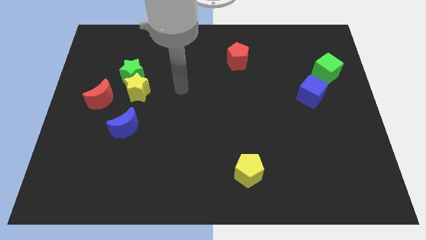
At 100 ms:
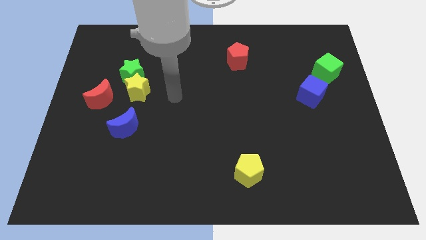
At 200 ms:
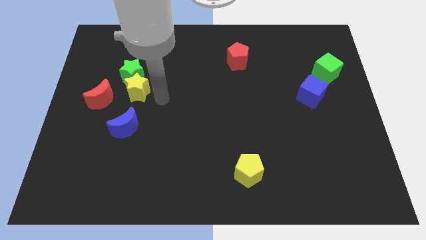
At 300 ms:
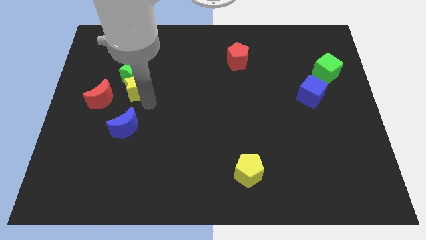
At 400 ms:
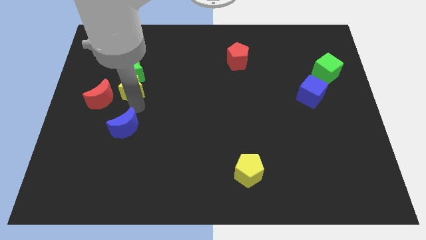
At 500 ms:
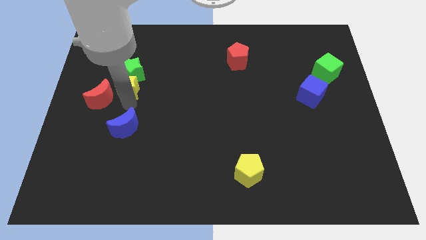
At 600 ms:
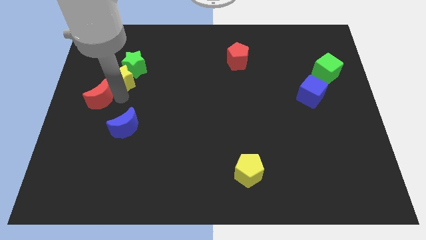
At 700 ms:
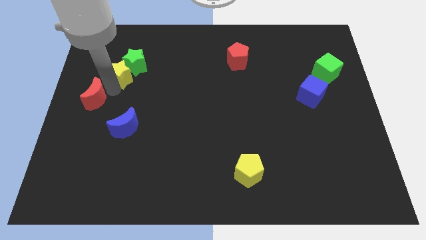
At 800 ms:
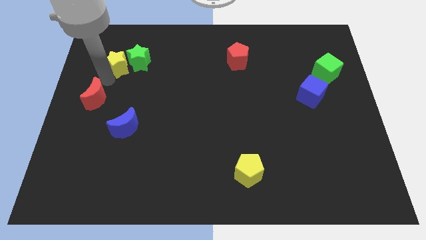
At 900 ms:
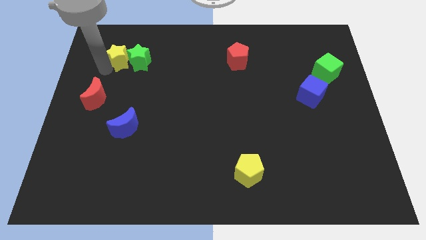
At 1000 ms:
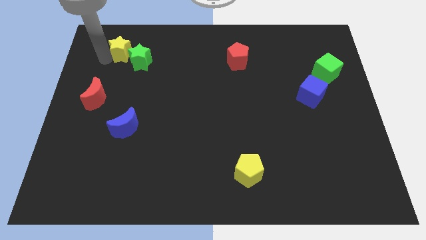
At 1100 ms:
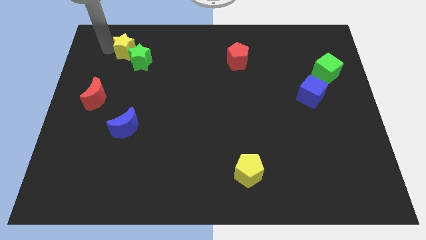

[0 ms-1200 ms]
separate the yellow star from the green star and red moon

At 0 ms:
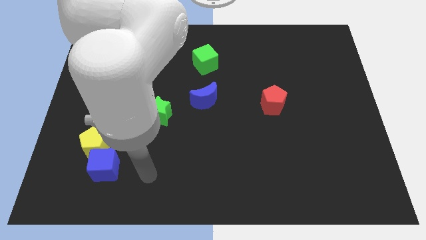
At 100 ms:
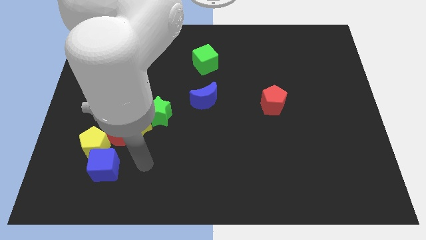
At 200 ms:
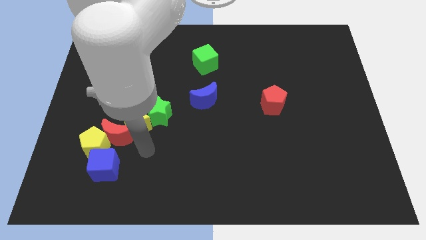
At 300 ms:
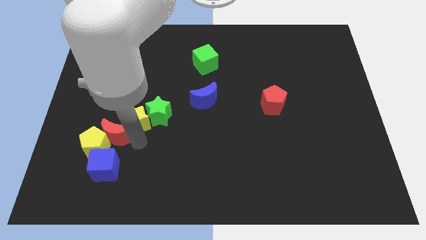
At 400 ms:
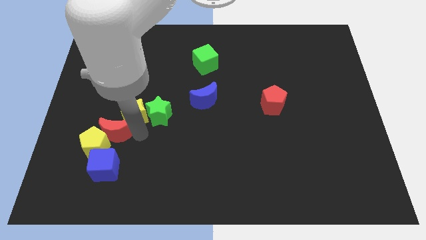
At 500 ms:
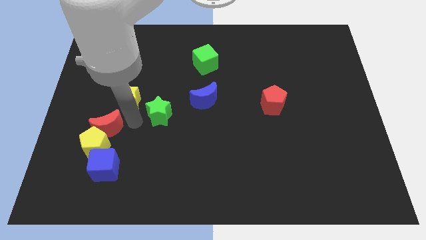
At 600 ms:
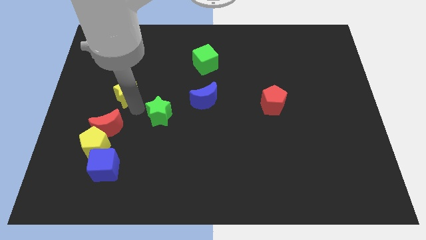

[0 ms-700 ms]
separate the green star from the yellow star

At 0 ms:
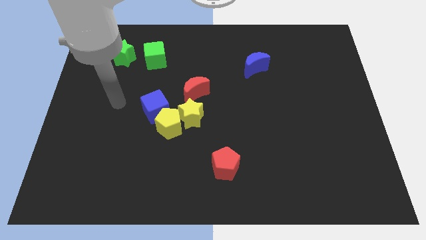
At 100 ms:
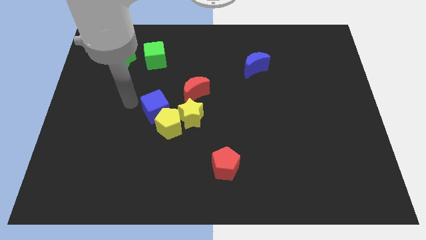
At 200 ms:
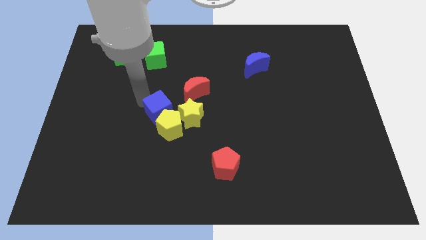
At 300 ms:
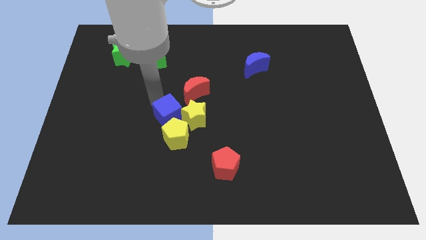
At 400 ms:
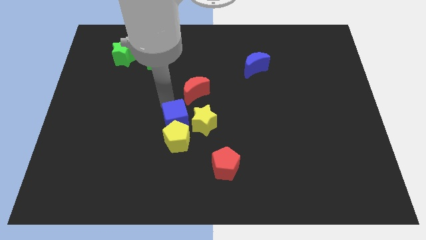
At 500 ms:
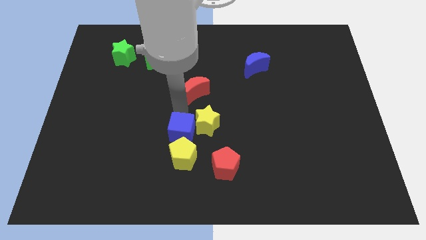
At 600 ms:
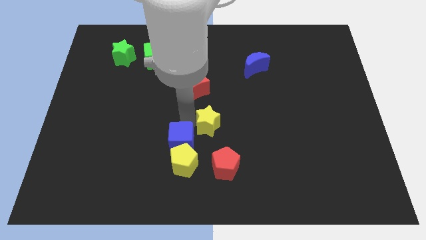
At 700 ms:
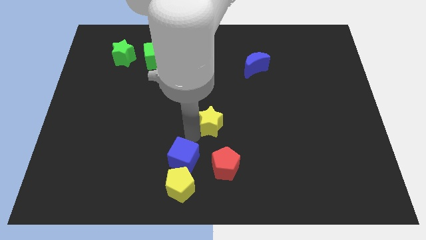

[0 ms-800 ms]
move the yellow pentagon away from the yellow star and blue cube

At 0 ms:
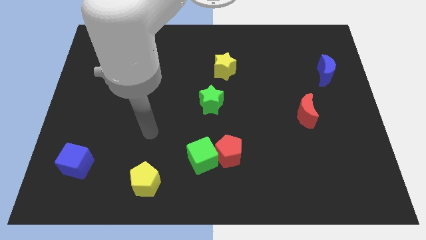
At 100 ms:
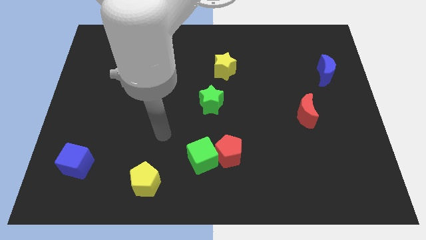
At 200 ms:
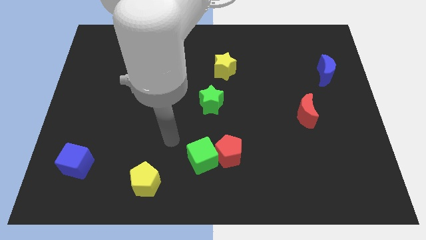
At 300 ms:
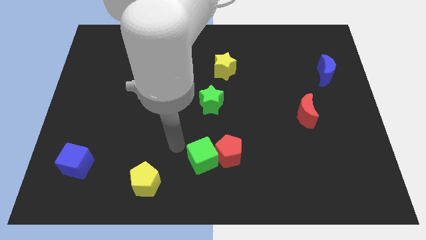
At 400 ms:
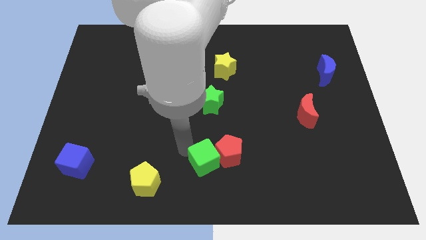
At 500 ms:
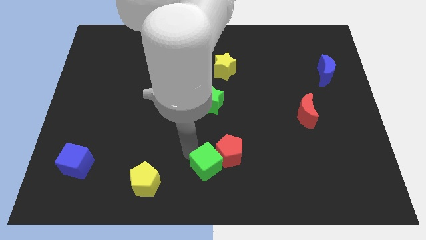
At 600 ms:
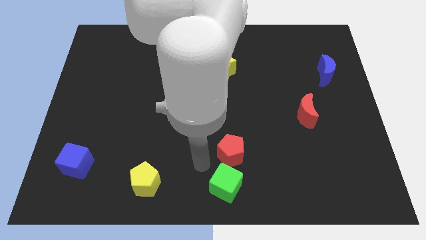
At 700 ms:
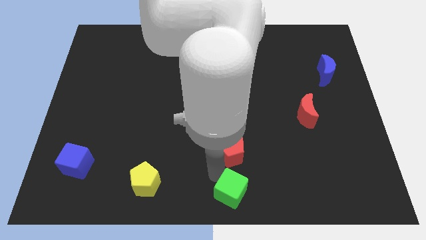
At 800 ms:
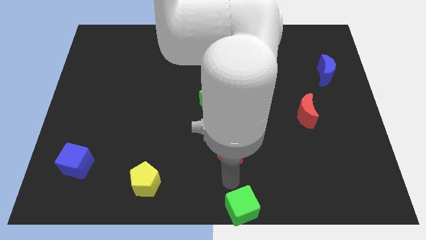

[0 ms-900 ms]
separate the red pentagon from the green cube

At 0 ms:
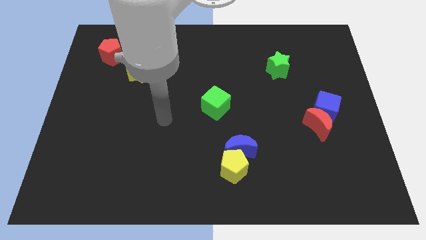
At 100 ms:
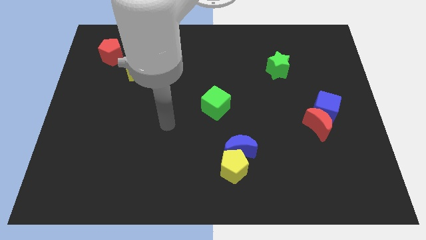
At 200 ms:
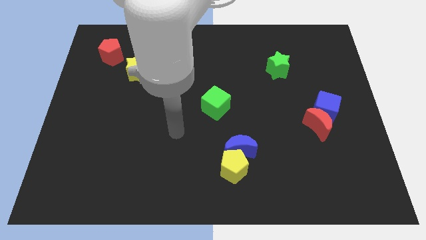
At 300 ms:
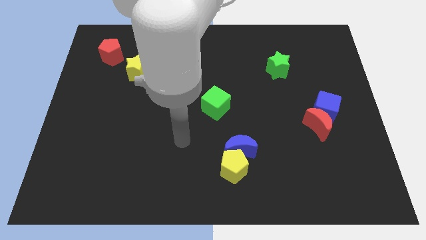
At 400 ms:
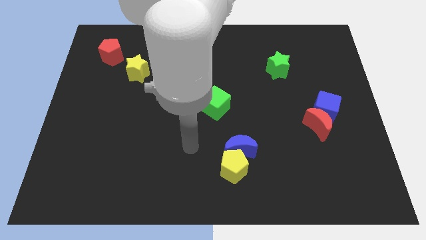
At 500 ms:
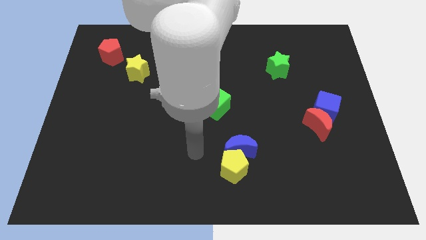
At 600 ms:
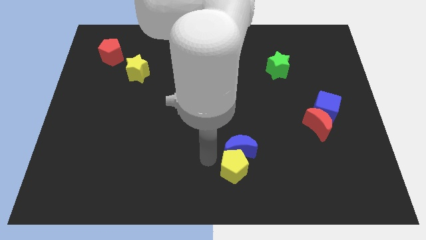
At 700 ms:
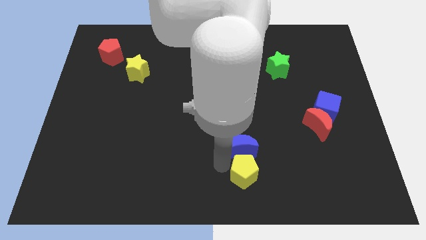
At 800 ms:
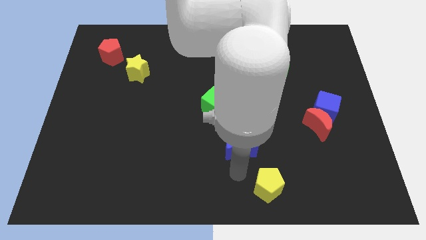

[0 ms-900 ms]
move the blue moon away from the yellow pentagon

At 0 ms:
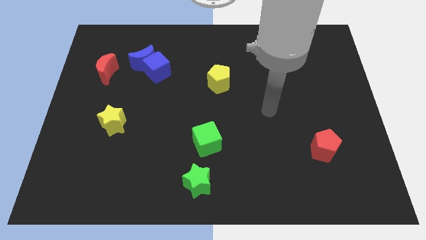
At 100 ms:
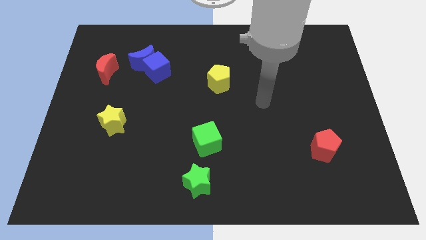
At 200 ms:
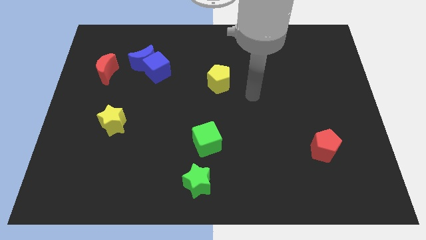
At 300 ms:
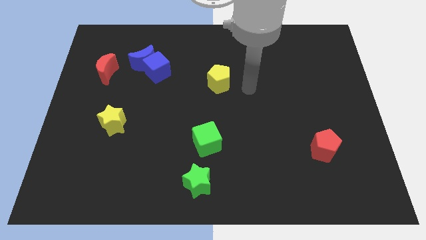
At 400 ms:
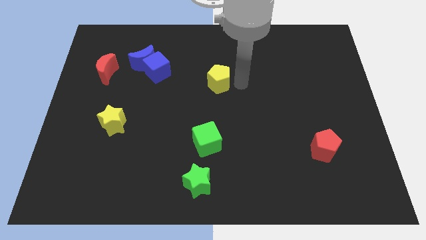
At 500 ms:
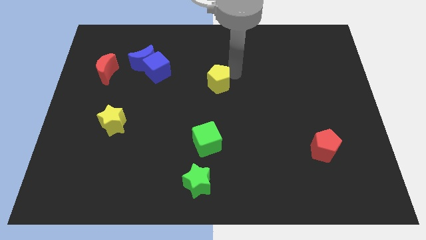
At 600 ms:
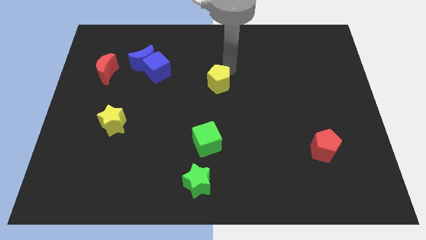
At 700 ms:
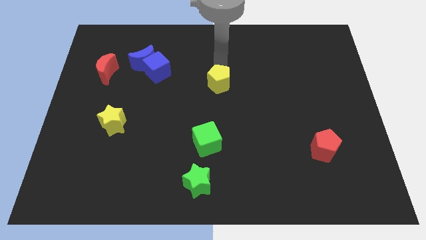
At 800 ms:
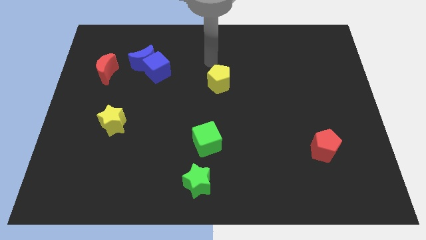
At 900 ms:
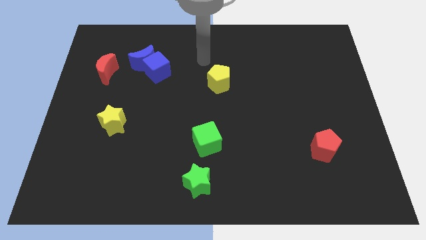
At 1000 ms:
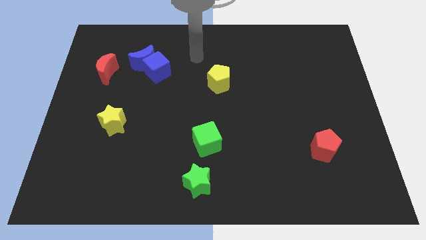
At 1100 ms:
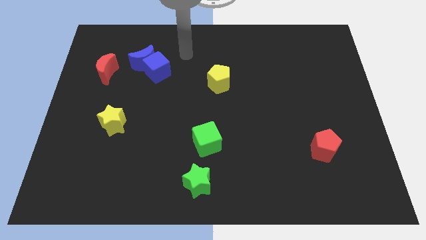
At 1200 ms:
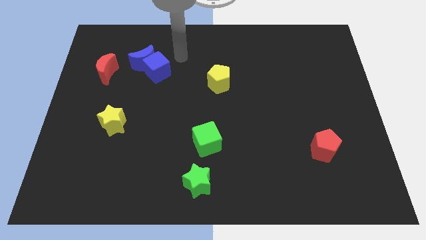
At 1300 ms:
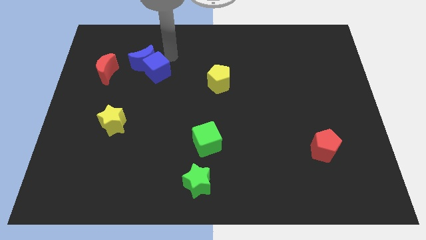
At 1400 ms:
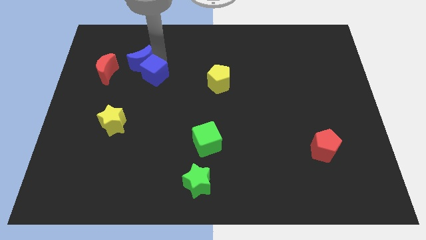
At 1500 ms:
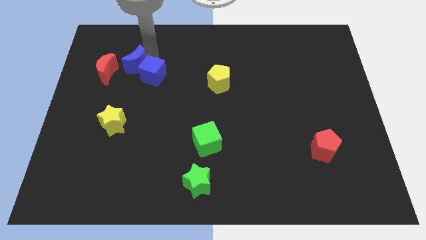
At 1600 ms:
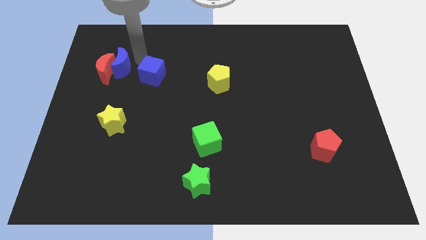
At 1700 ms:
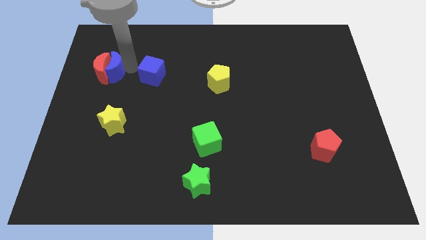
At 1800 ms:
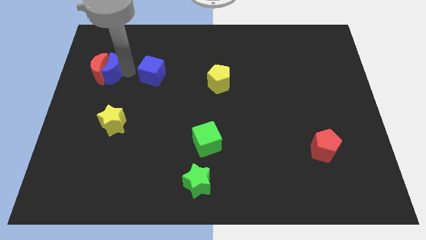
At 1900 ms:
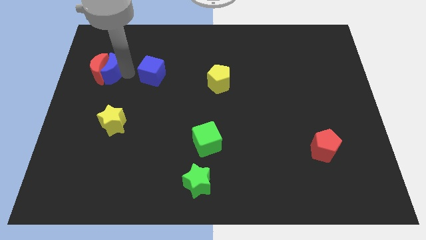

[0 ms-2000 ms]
pull the blue cube apart from the blue moon

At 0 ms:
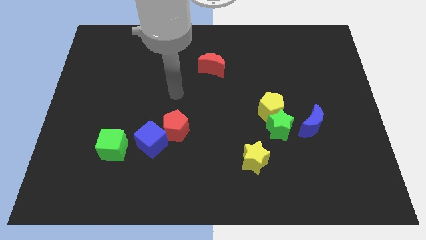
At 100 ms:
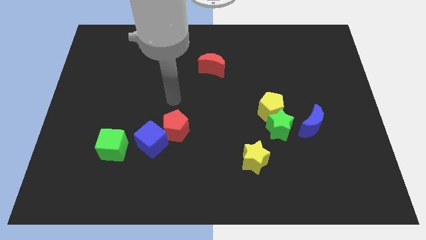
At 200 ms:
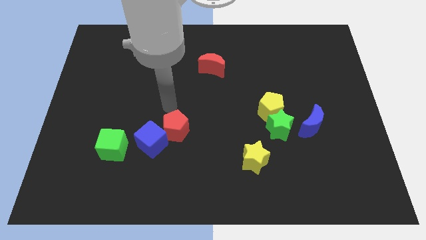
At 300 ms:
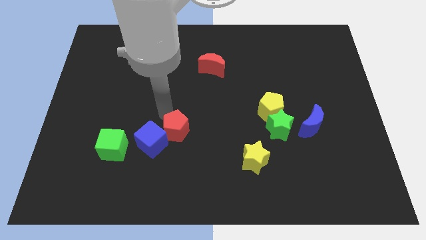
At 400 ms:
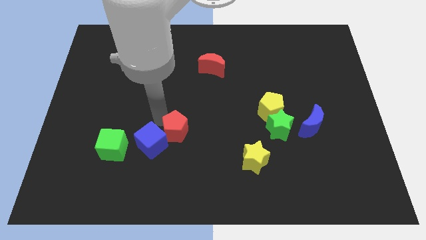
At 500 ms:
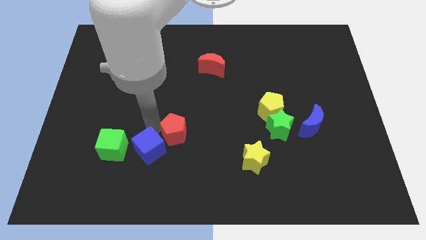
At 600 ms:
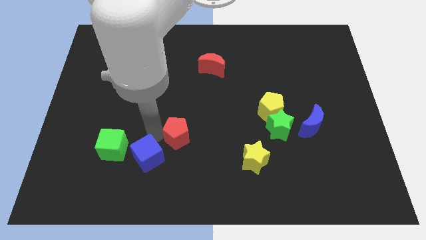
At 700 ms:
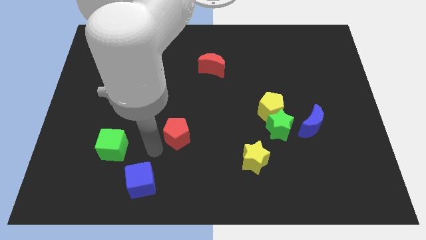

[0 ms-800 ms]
move the red pentagon away from the blue cube

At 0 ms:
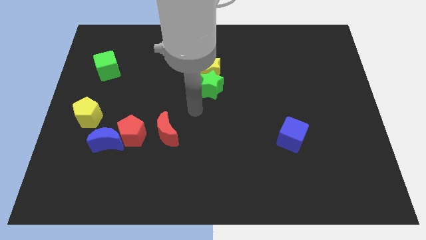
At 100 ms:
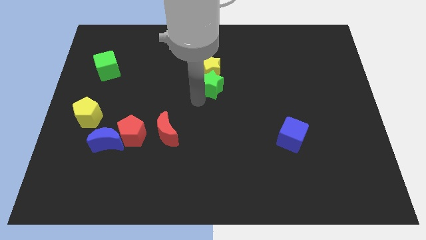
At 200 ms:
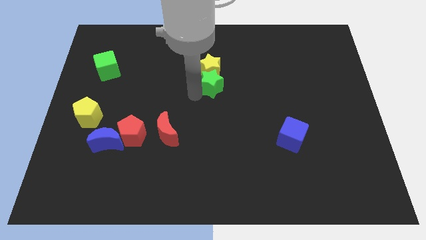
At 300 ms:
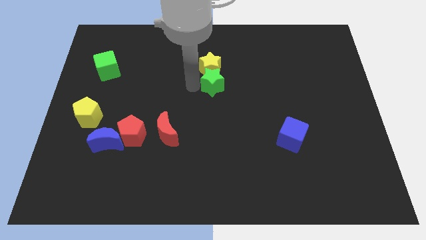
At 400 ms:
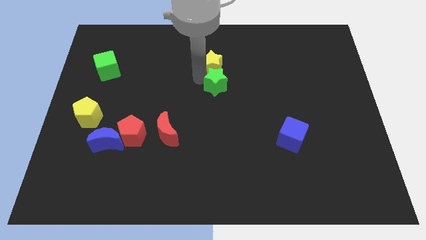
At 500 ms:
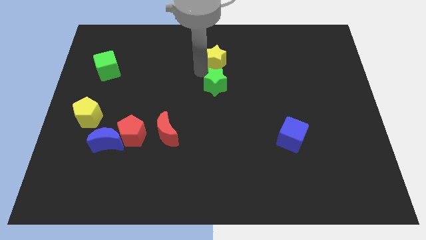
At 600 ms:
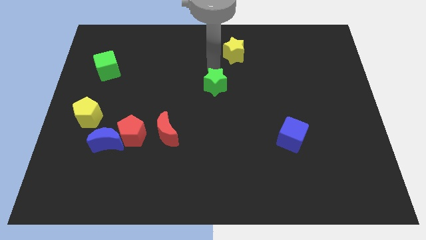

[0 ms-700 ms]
move the green star away from the yellow star

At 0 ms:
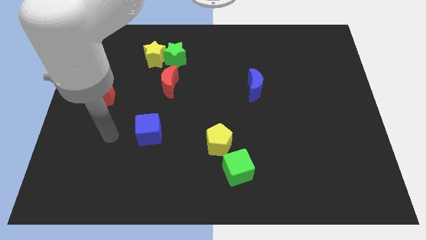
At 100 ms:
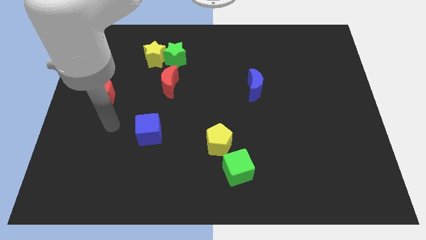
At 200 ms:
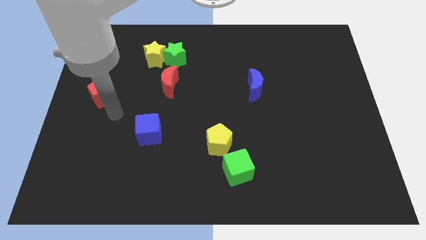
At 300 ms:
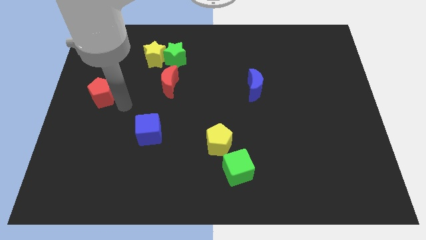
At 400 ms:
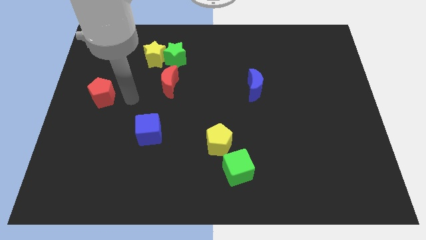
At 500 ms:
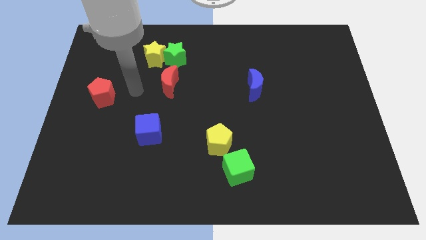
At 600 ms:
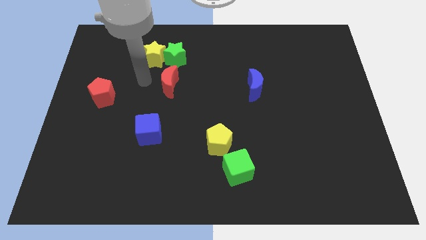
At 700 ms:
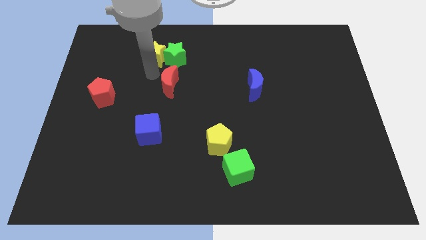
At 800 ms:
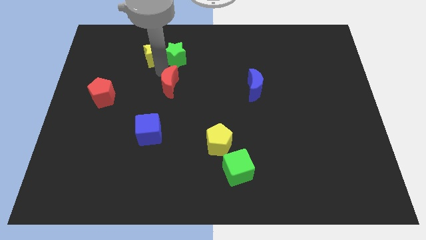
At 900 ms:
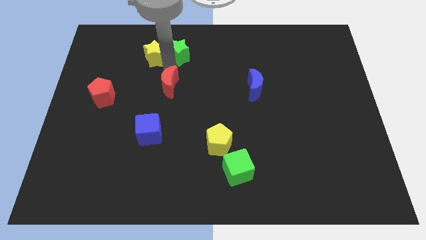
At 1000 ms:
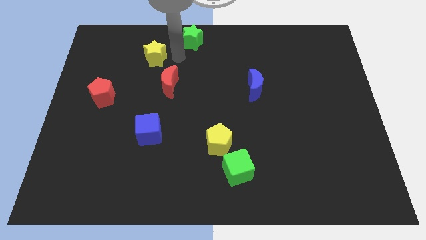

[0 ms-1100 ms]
pull the yellow star apart from the green star

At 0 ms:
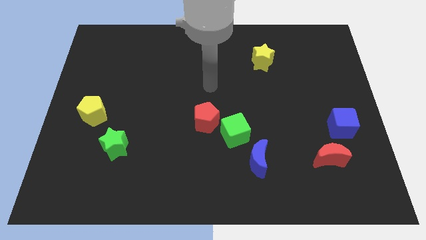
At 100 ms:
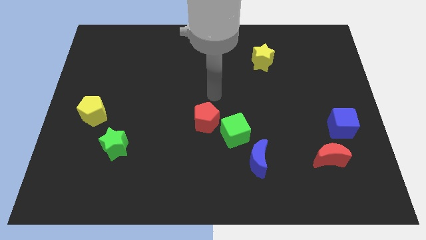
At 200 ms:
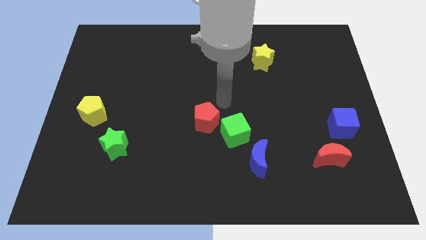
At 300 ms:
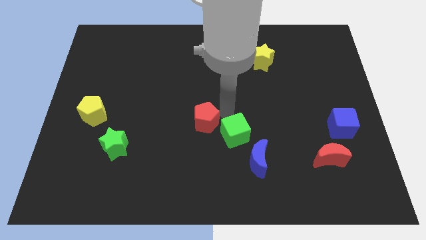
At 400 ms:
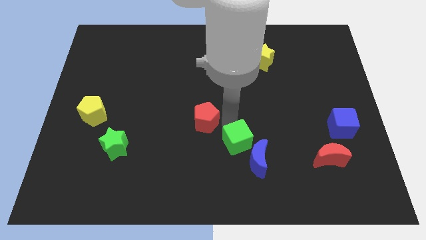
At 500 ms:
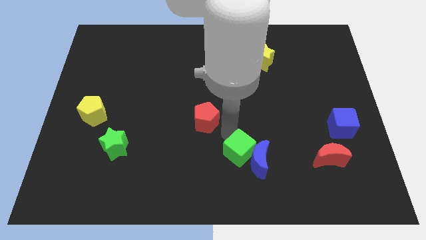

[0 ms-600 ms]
move the red pentagon away from the green cube
